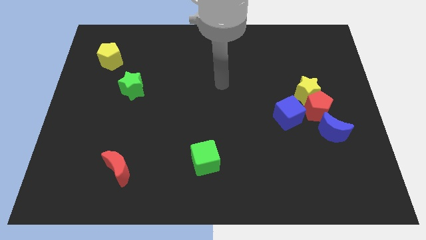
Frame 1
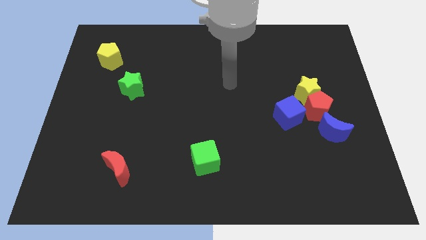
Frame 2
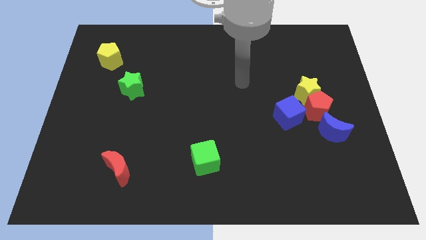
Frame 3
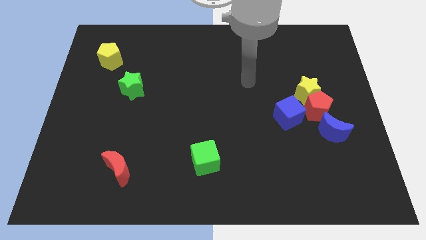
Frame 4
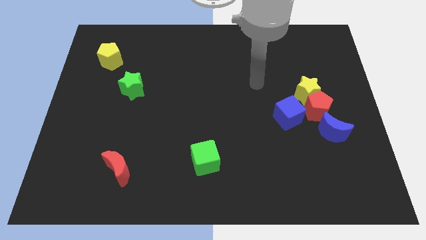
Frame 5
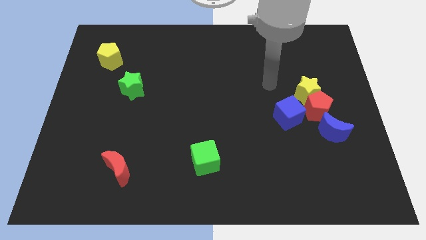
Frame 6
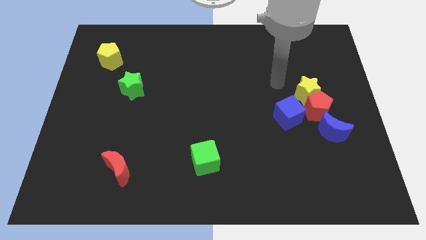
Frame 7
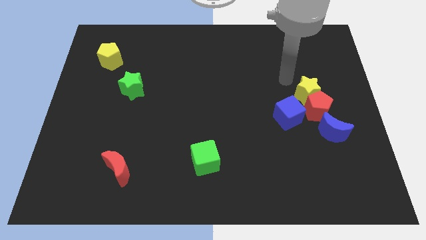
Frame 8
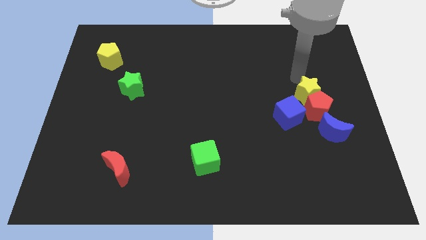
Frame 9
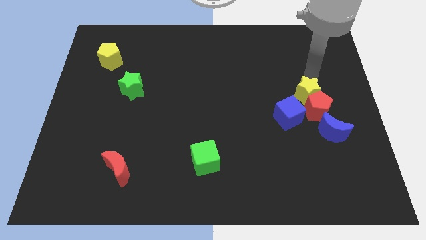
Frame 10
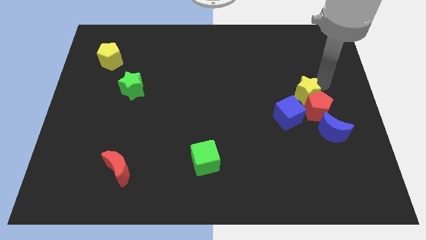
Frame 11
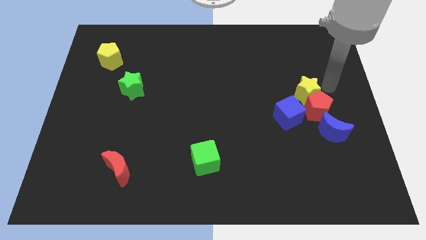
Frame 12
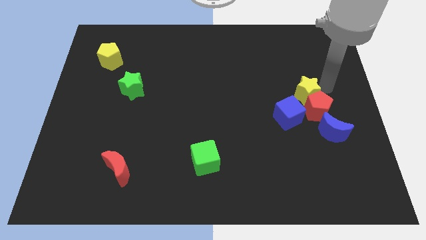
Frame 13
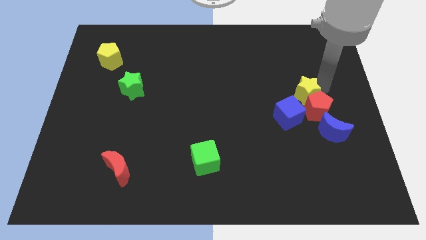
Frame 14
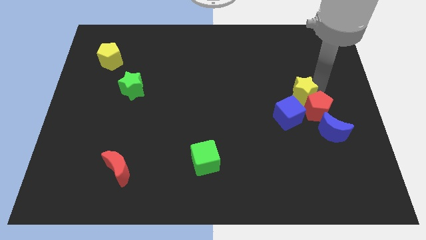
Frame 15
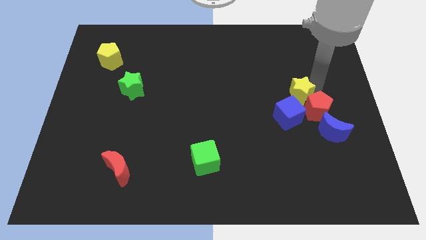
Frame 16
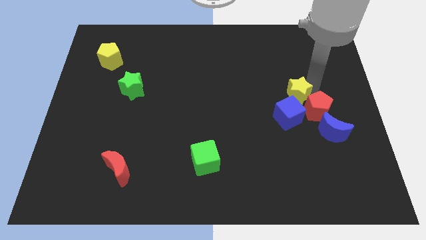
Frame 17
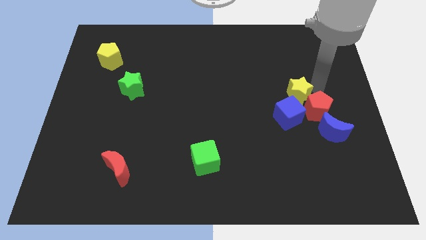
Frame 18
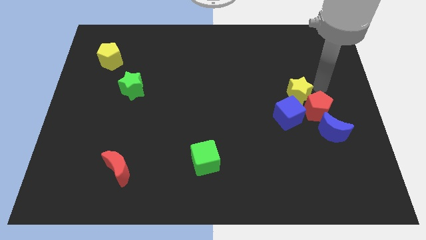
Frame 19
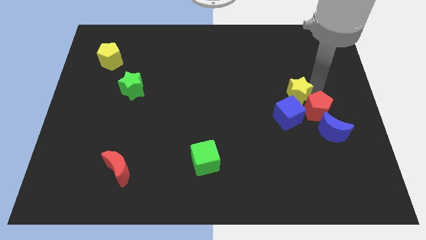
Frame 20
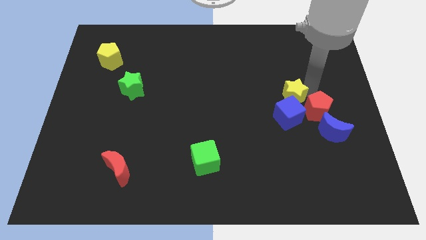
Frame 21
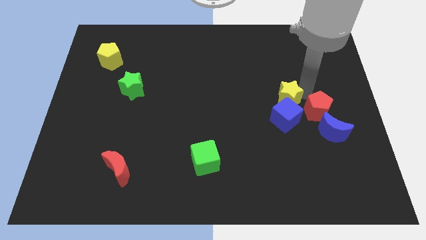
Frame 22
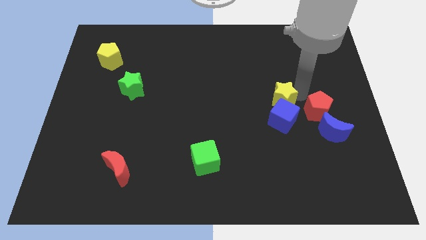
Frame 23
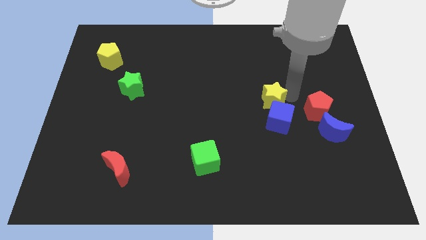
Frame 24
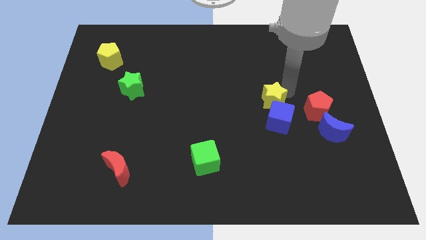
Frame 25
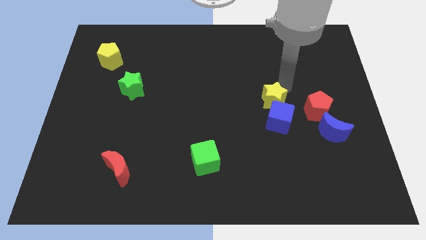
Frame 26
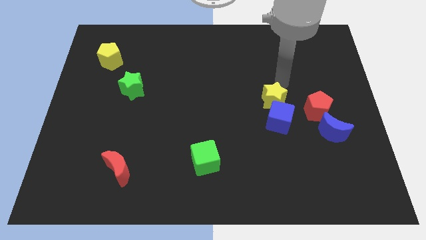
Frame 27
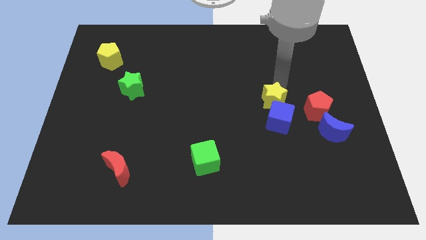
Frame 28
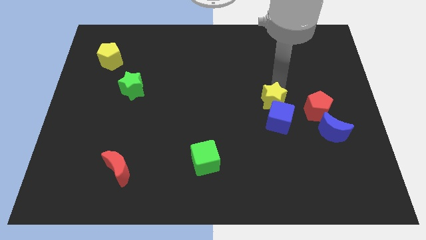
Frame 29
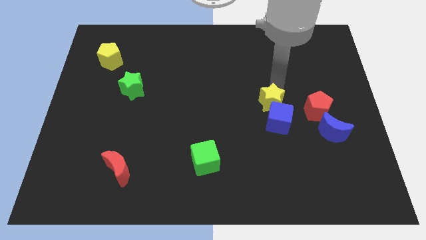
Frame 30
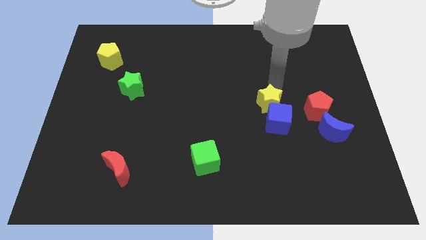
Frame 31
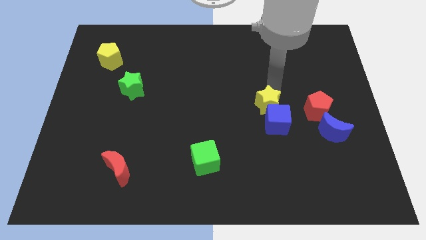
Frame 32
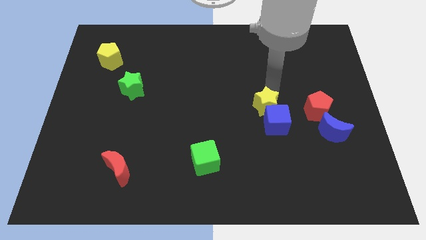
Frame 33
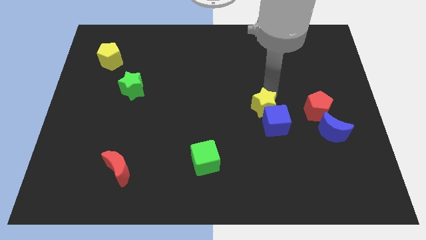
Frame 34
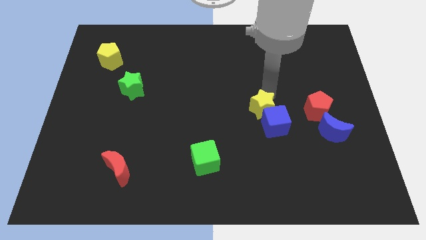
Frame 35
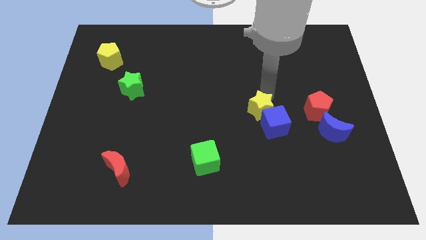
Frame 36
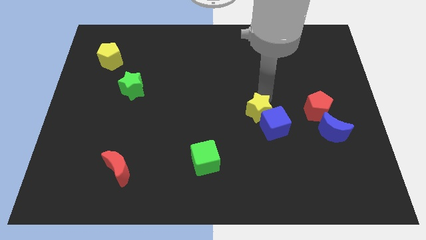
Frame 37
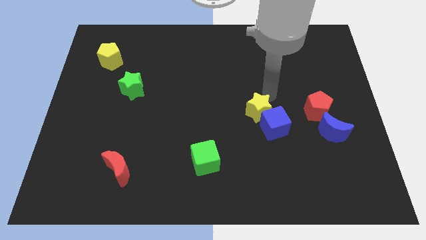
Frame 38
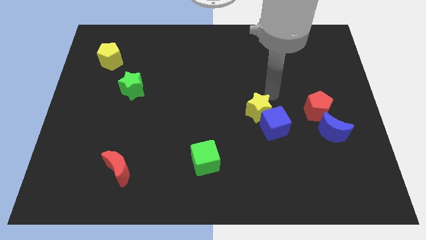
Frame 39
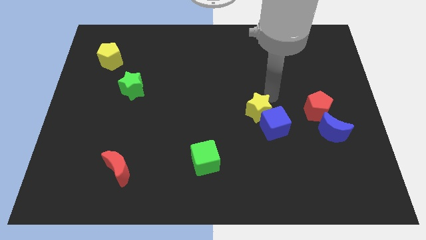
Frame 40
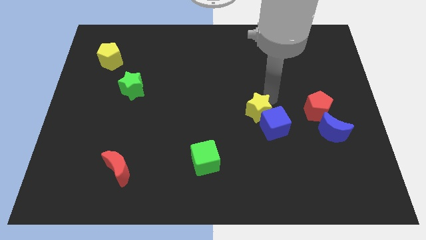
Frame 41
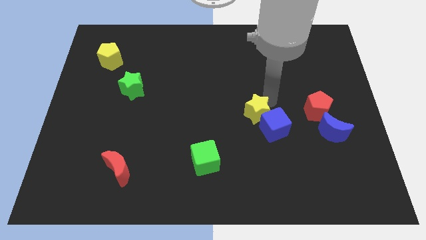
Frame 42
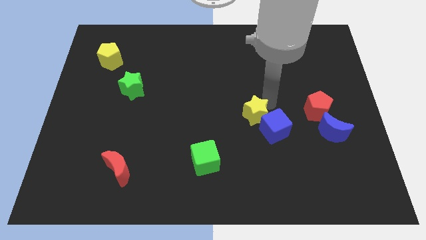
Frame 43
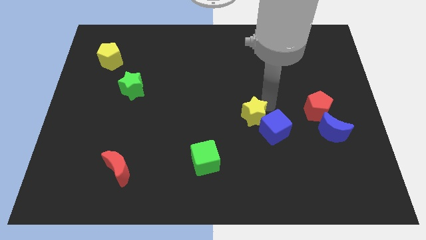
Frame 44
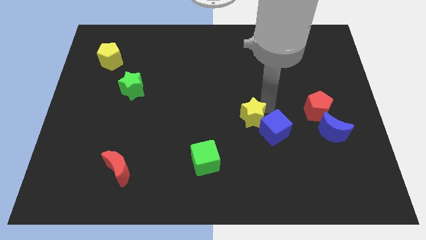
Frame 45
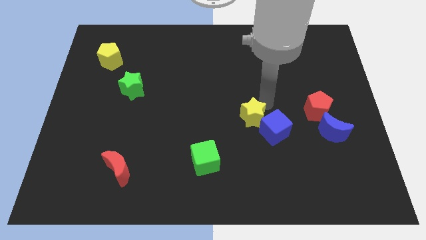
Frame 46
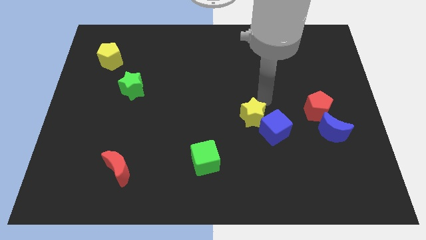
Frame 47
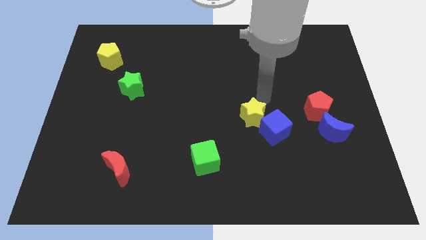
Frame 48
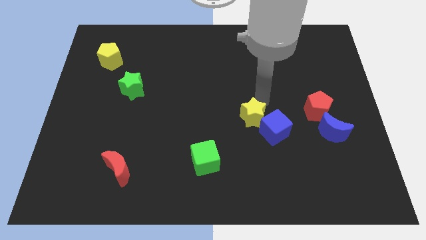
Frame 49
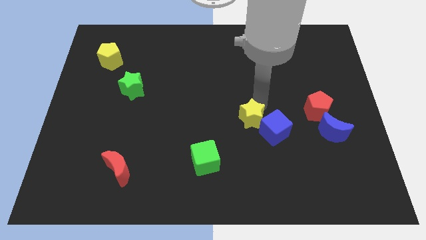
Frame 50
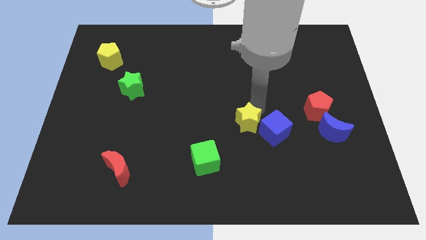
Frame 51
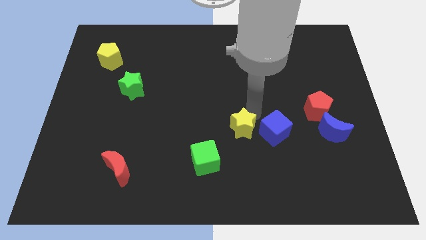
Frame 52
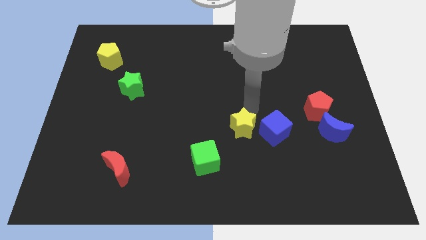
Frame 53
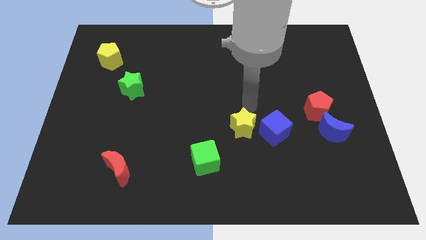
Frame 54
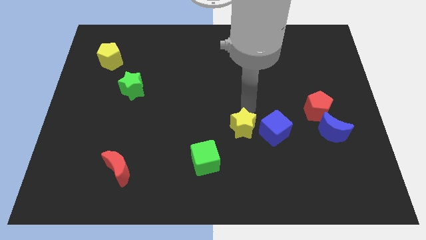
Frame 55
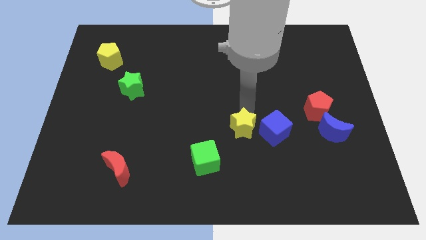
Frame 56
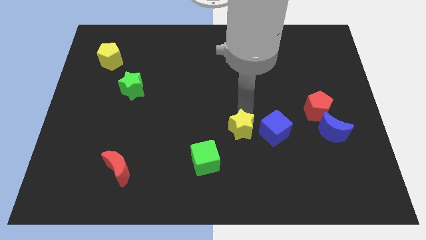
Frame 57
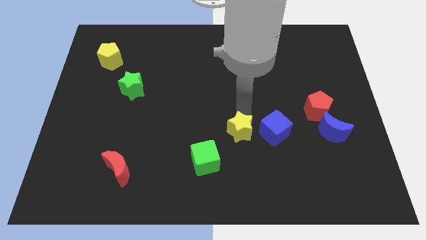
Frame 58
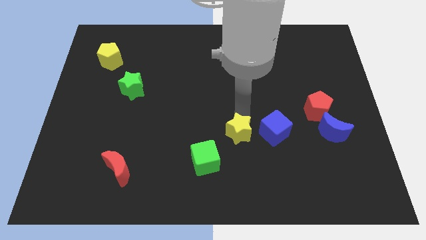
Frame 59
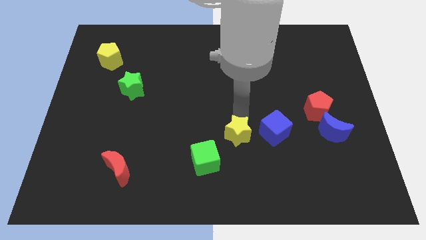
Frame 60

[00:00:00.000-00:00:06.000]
push the yellow star down and then to the left

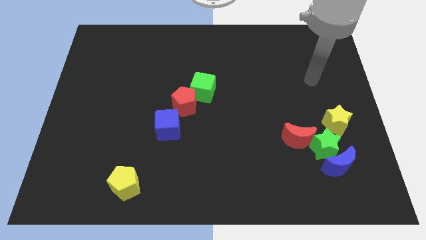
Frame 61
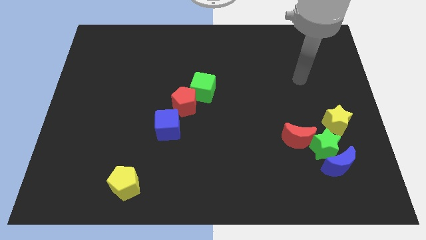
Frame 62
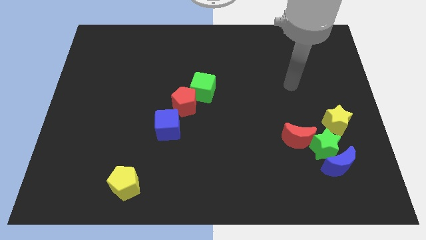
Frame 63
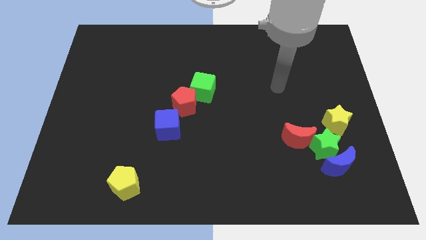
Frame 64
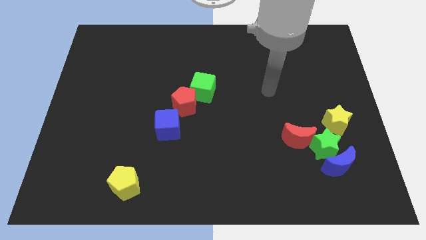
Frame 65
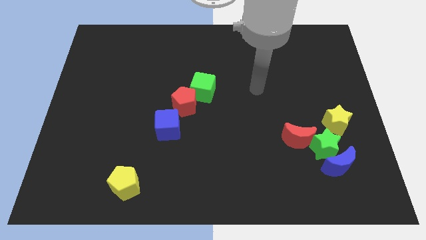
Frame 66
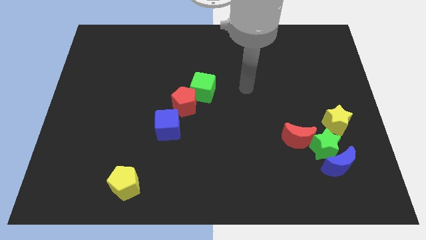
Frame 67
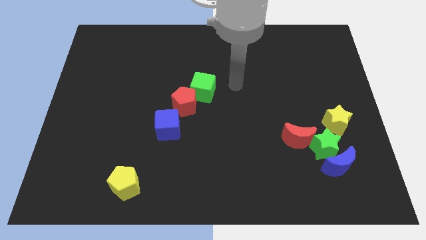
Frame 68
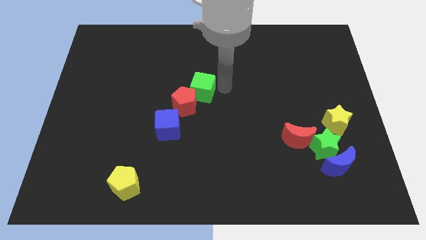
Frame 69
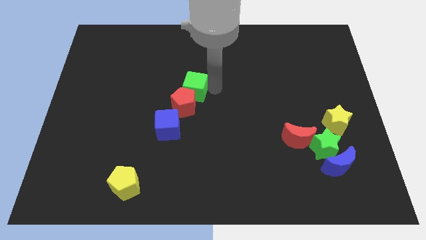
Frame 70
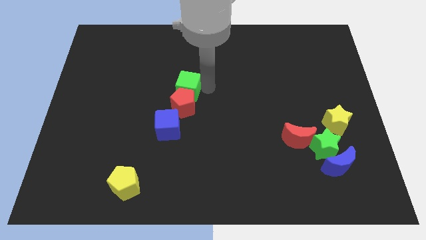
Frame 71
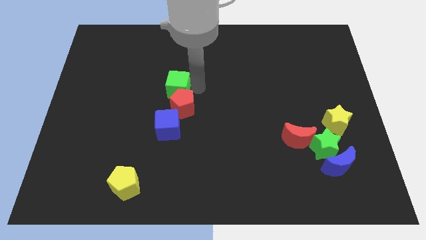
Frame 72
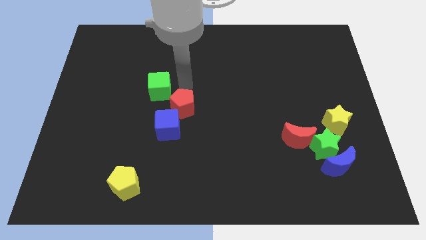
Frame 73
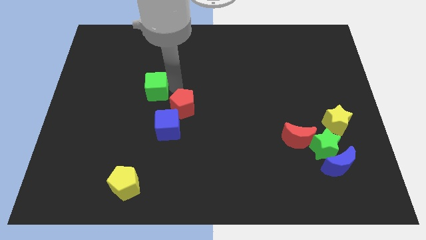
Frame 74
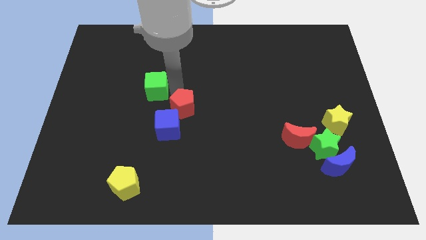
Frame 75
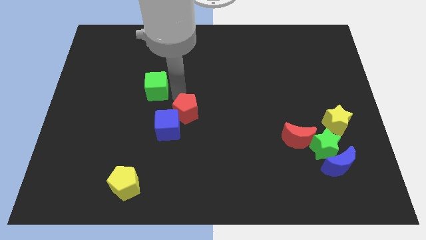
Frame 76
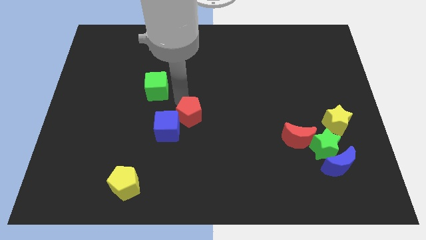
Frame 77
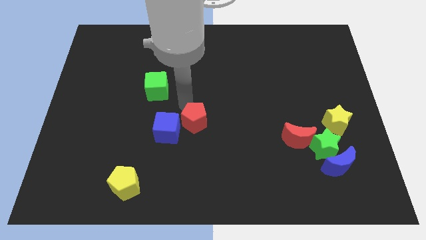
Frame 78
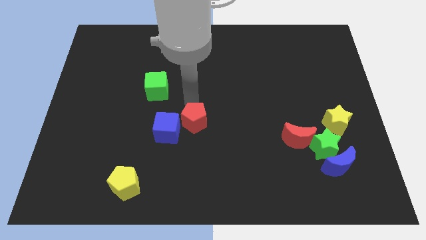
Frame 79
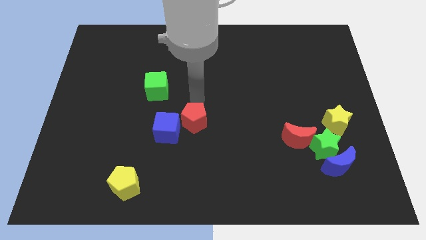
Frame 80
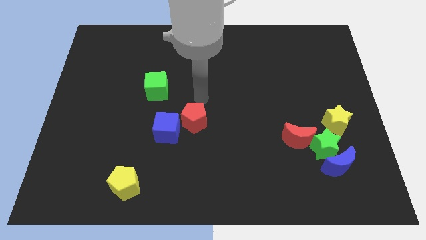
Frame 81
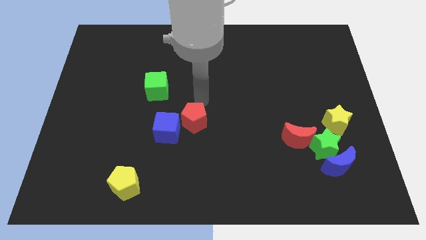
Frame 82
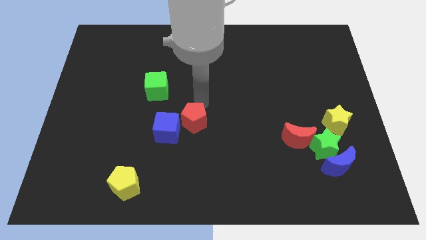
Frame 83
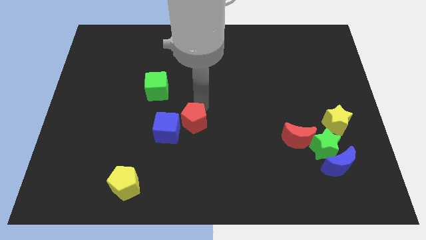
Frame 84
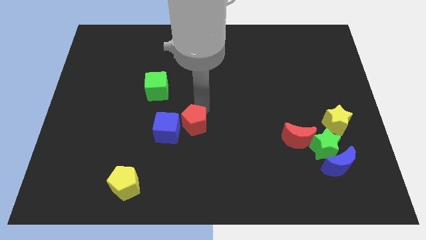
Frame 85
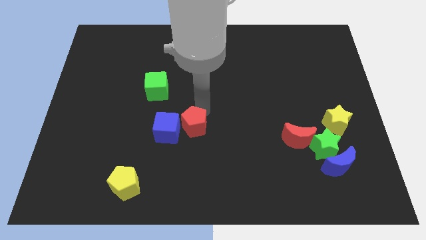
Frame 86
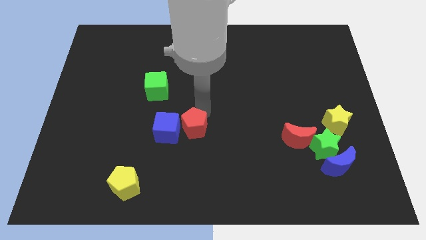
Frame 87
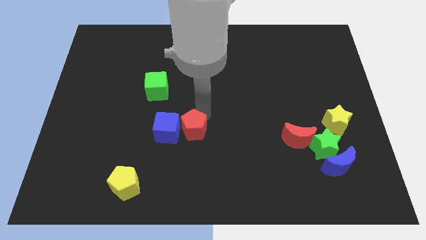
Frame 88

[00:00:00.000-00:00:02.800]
slightly move the red pentagon downwards
